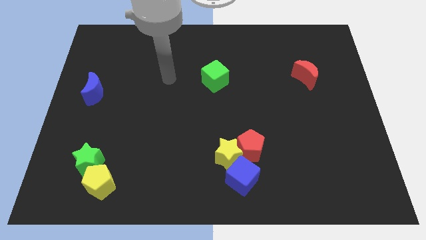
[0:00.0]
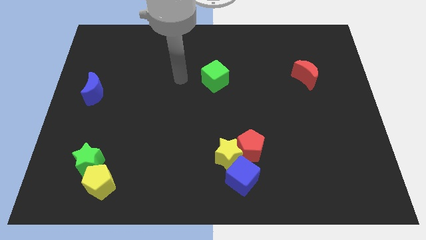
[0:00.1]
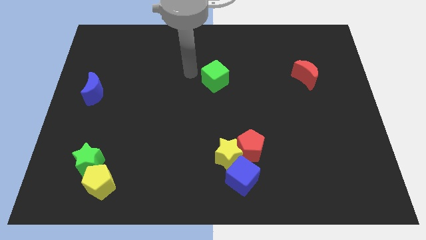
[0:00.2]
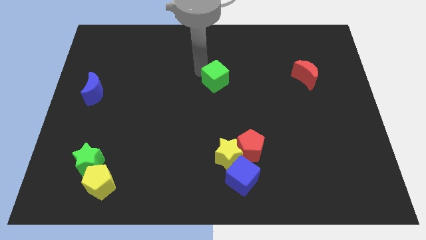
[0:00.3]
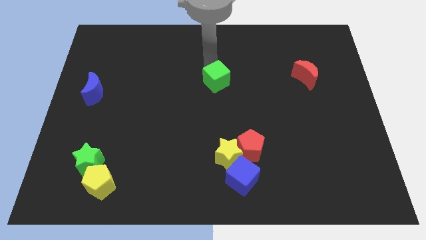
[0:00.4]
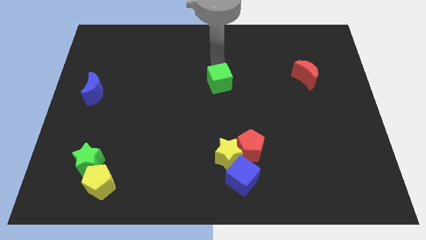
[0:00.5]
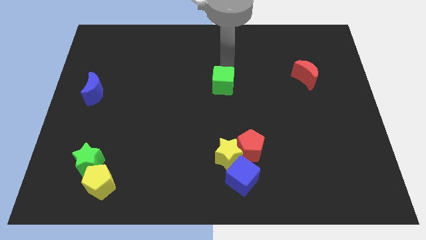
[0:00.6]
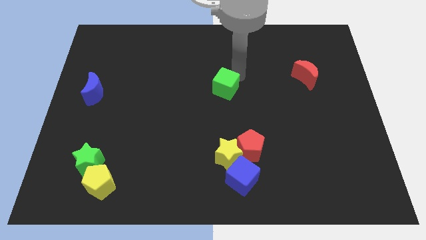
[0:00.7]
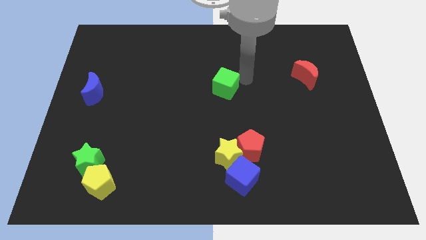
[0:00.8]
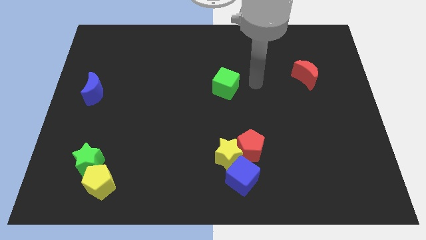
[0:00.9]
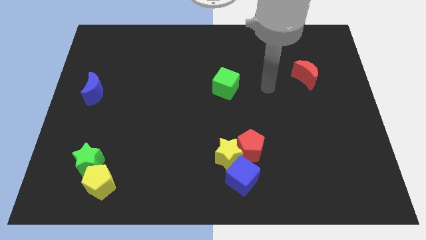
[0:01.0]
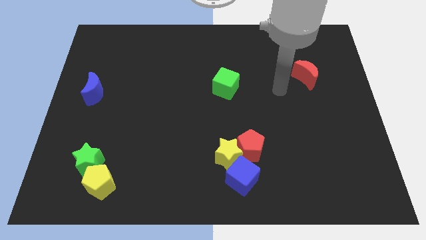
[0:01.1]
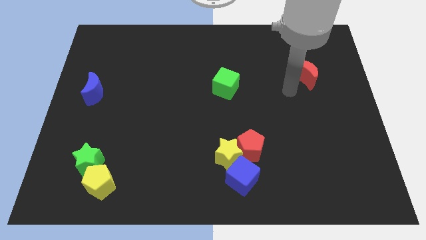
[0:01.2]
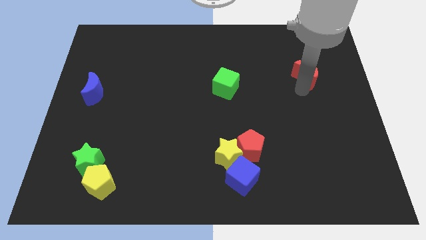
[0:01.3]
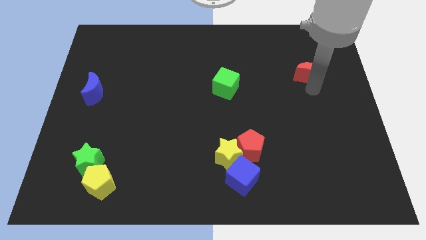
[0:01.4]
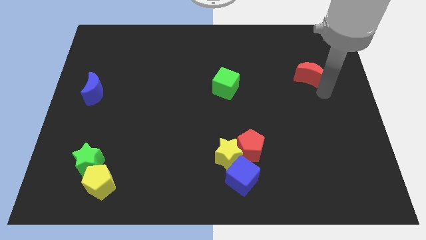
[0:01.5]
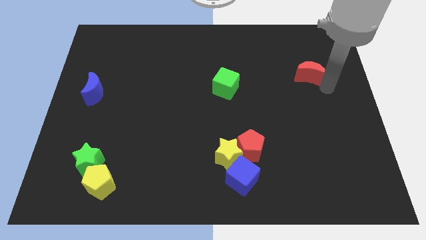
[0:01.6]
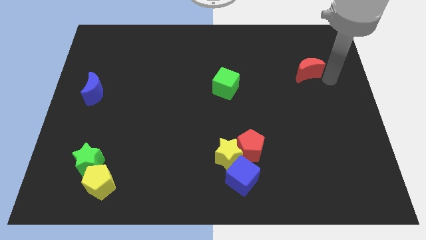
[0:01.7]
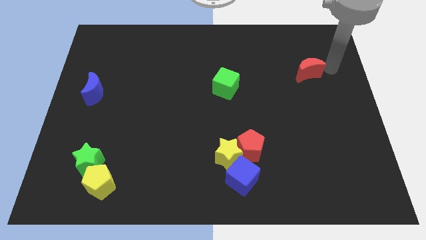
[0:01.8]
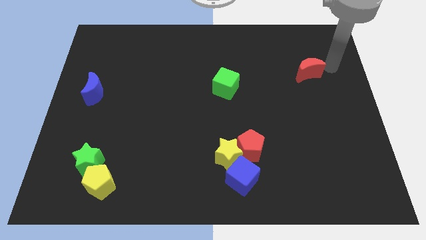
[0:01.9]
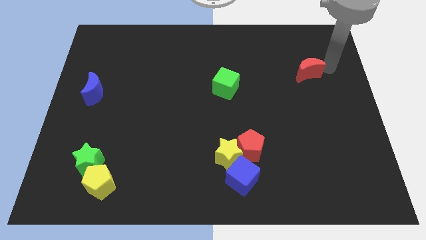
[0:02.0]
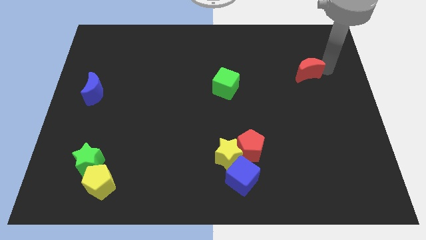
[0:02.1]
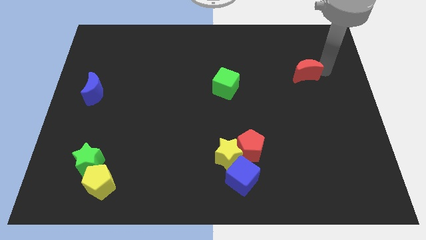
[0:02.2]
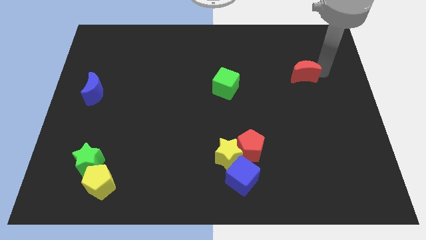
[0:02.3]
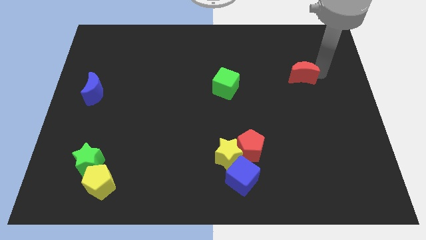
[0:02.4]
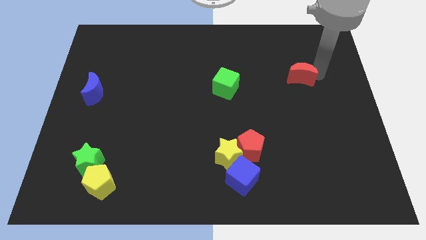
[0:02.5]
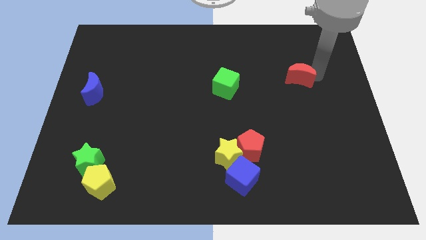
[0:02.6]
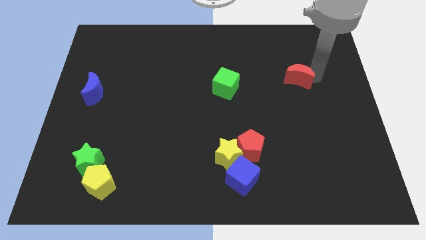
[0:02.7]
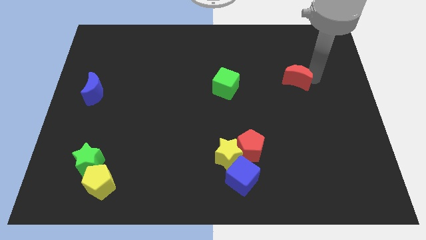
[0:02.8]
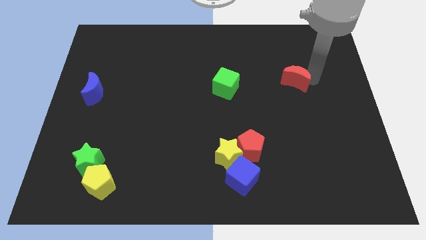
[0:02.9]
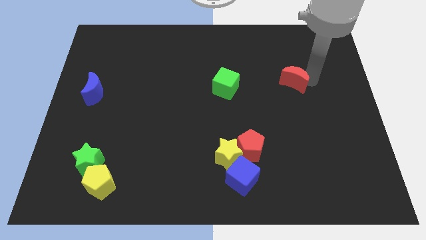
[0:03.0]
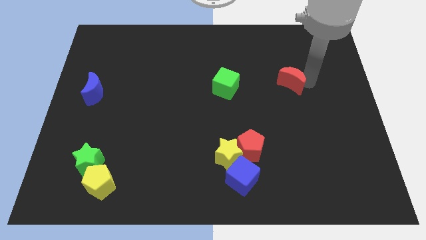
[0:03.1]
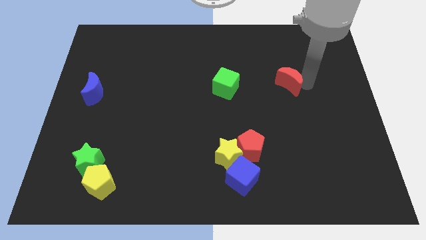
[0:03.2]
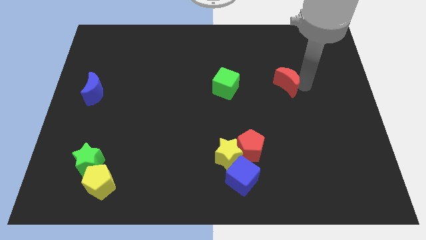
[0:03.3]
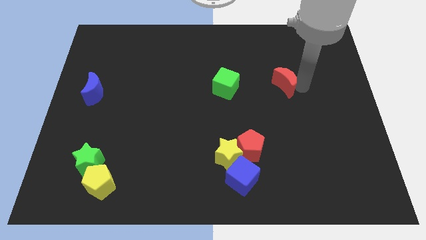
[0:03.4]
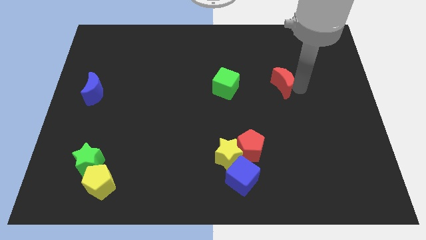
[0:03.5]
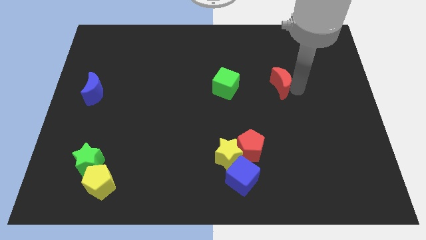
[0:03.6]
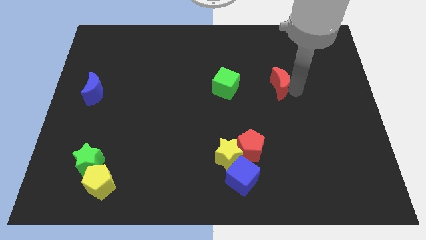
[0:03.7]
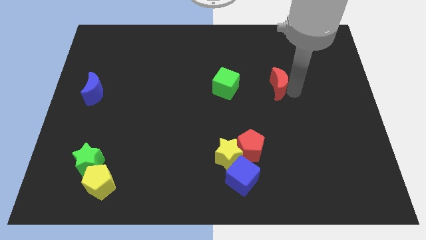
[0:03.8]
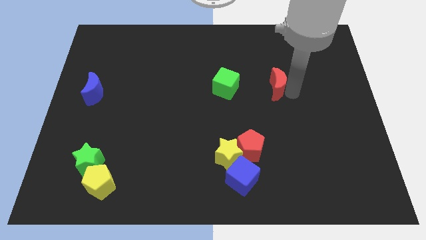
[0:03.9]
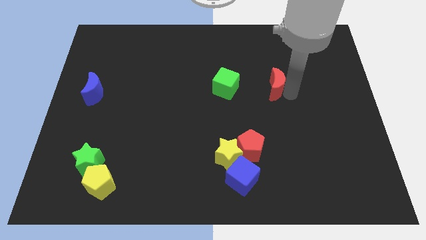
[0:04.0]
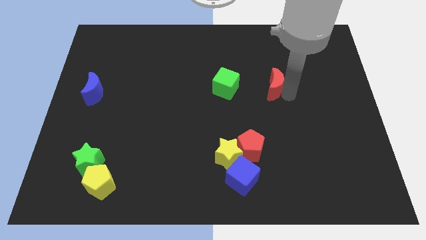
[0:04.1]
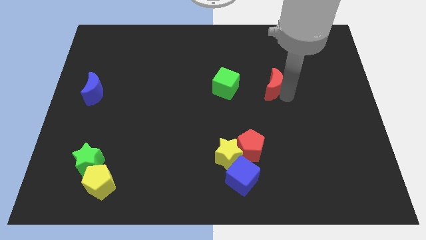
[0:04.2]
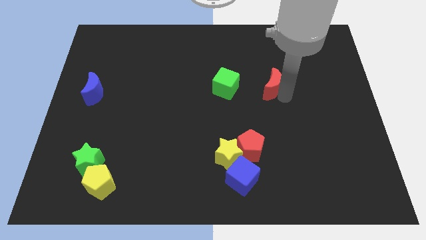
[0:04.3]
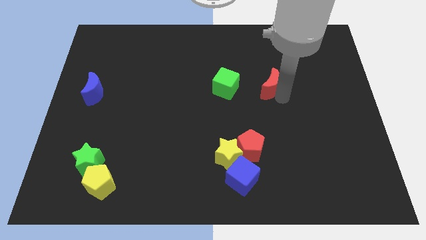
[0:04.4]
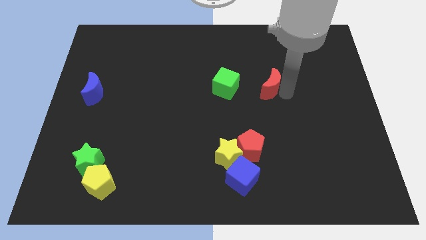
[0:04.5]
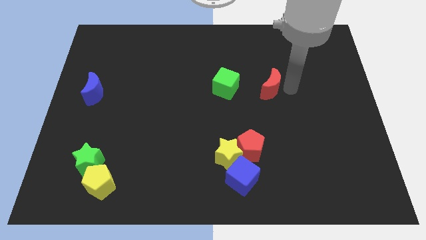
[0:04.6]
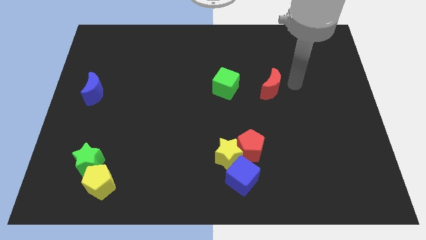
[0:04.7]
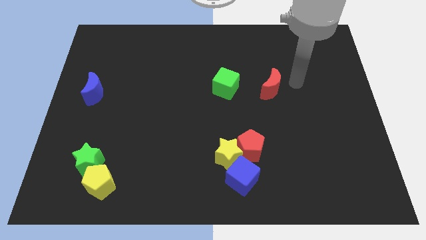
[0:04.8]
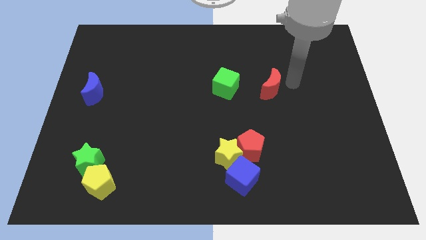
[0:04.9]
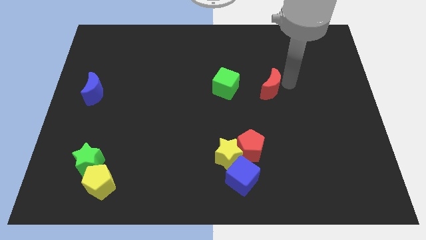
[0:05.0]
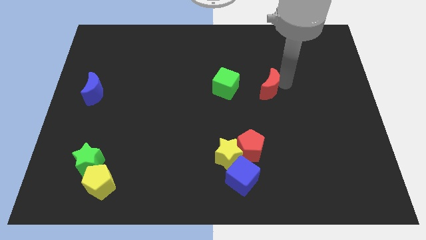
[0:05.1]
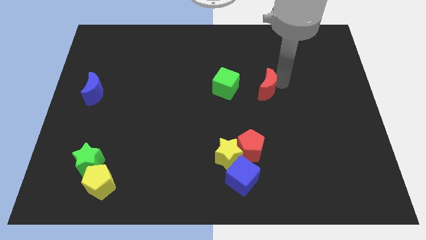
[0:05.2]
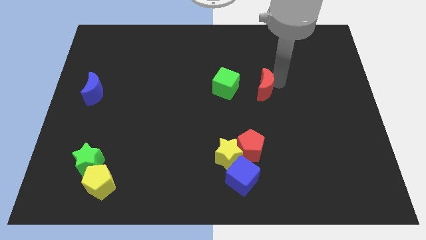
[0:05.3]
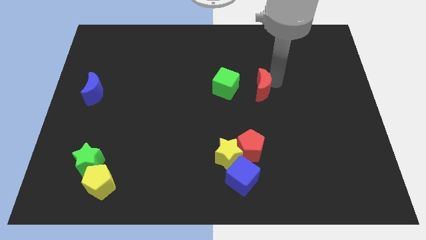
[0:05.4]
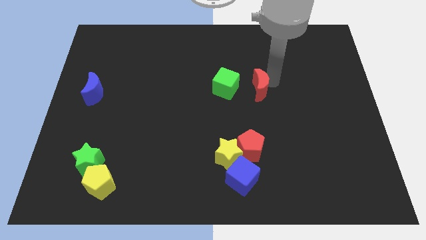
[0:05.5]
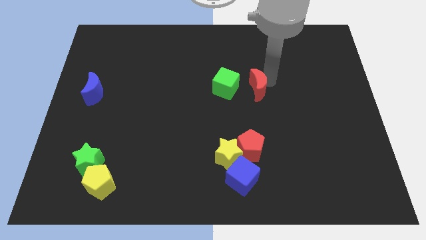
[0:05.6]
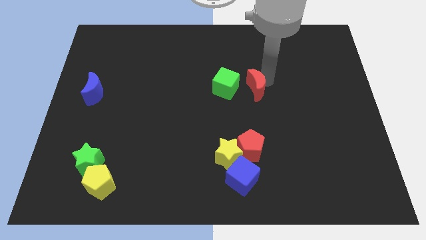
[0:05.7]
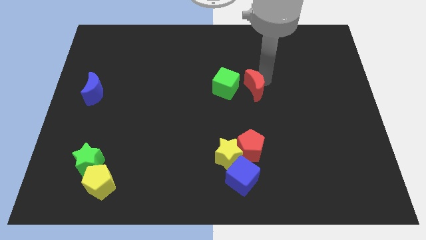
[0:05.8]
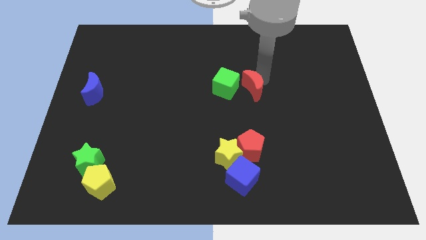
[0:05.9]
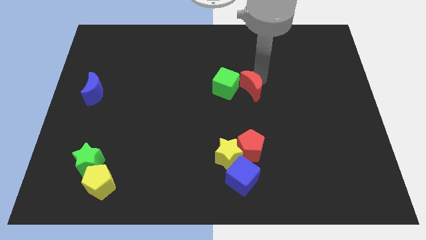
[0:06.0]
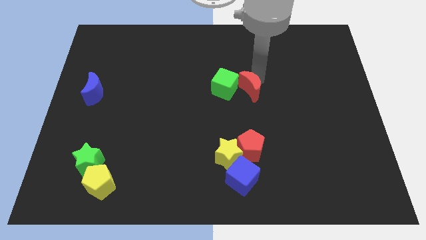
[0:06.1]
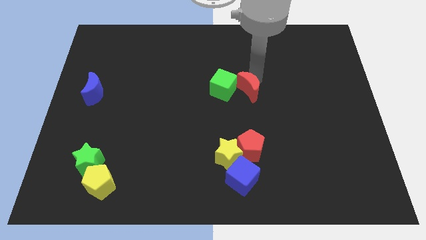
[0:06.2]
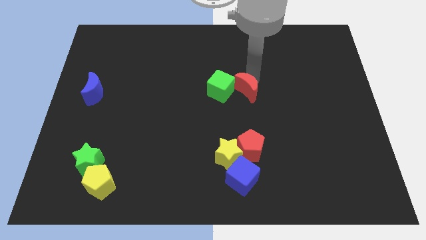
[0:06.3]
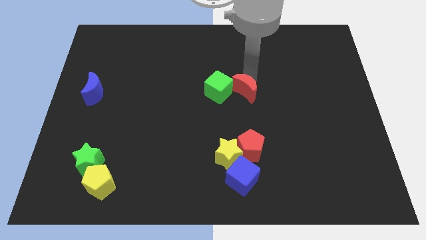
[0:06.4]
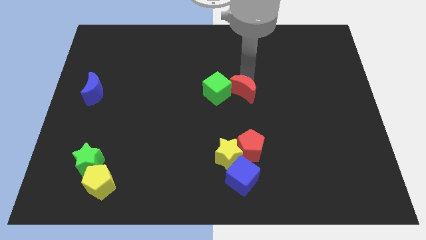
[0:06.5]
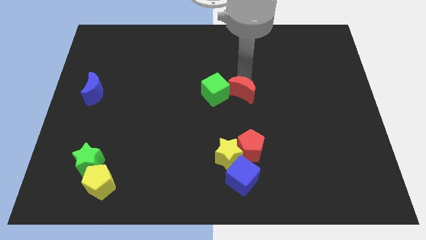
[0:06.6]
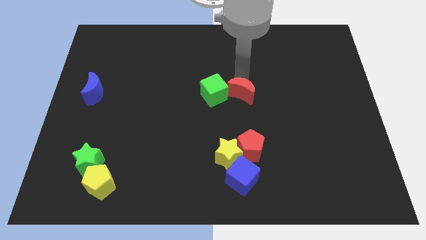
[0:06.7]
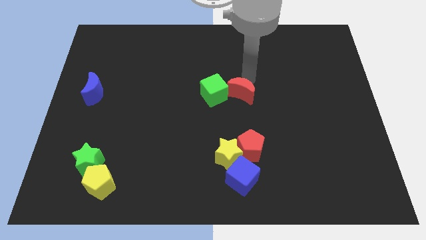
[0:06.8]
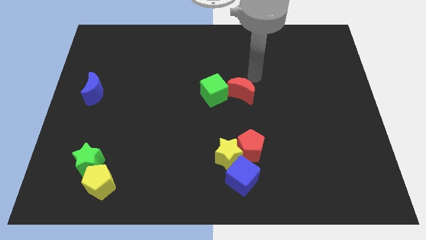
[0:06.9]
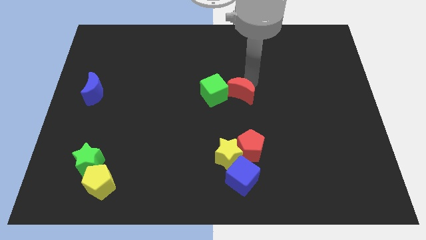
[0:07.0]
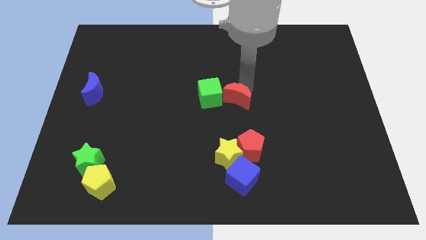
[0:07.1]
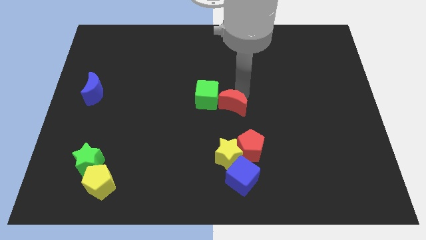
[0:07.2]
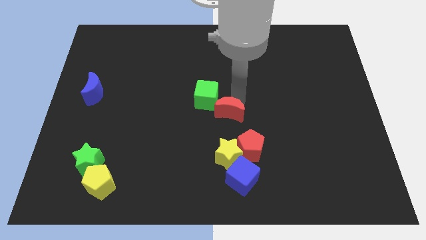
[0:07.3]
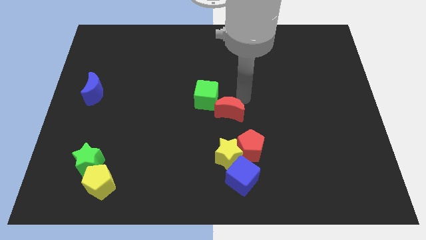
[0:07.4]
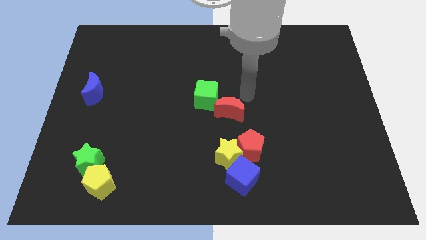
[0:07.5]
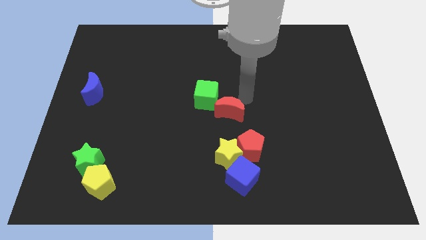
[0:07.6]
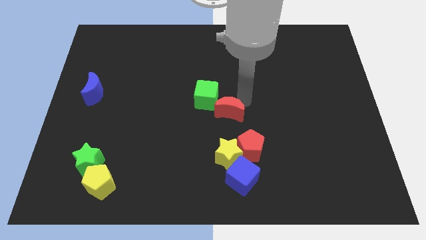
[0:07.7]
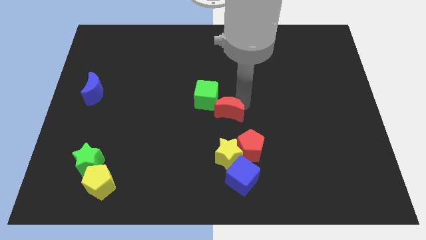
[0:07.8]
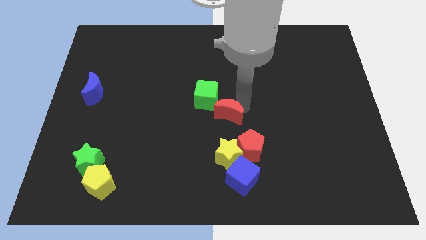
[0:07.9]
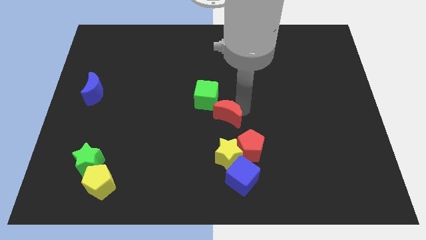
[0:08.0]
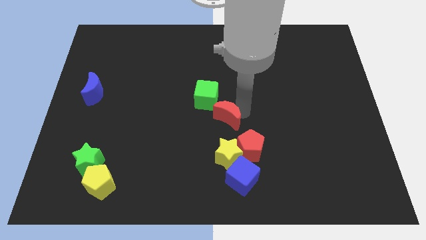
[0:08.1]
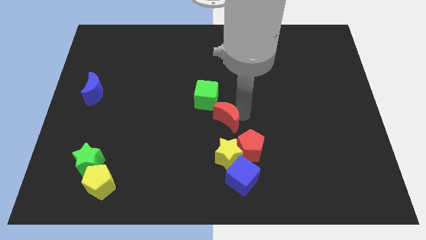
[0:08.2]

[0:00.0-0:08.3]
slide the red moon to the bottom side of the green cube
